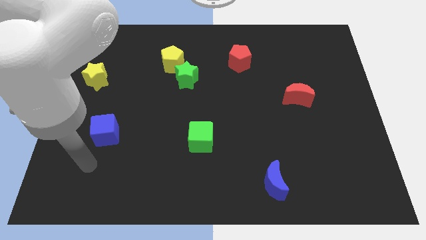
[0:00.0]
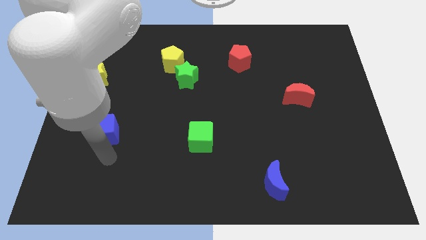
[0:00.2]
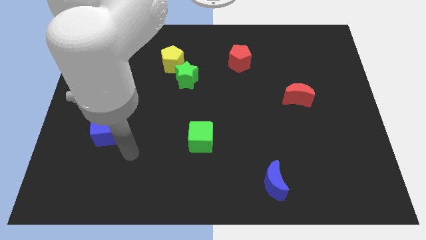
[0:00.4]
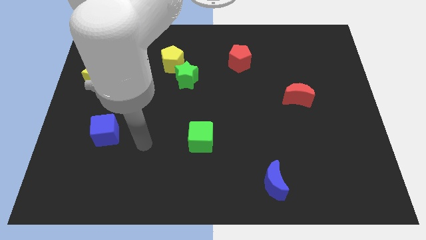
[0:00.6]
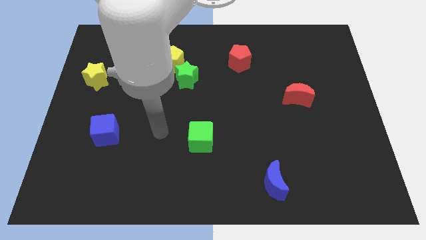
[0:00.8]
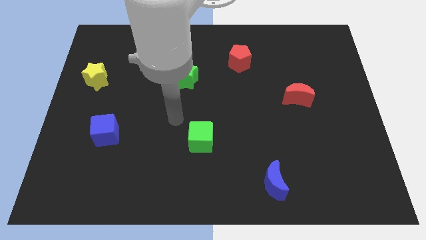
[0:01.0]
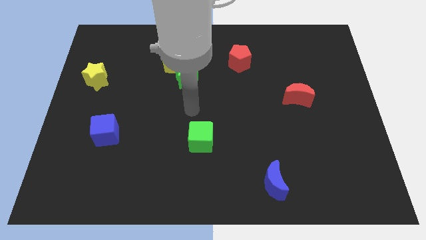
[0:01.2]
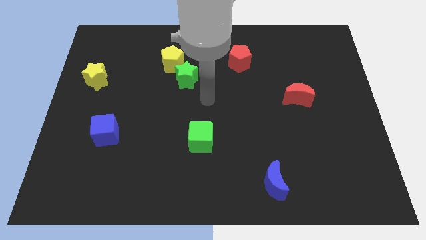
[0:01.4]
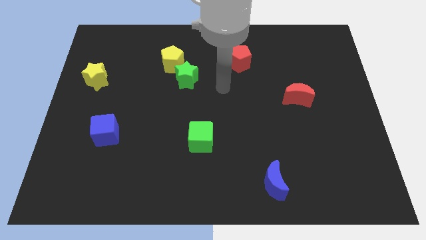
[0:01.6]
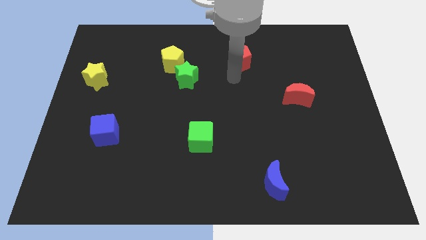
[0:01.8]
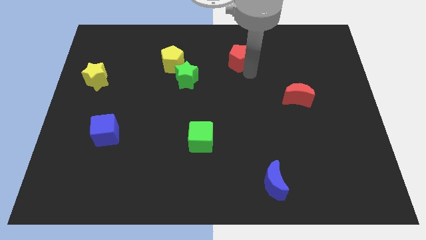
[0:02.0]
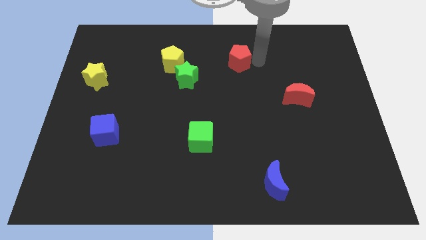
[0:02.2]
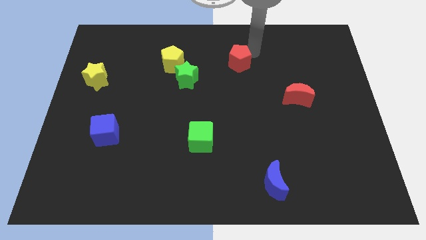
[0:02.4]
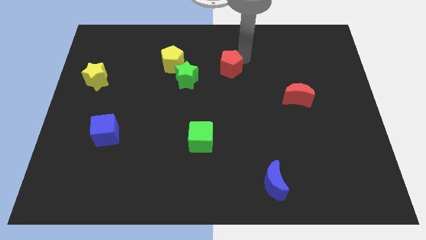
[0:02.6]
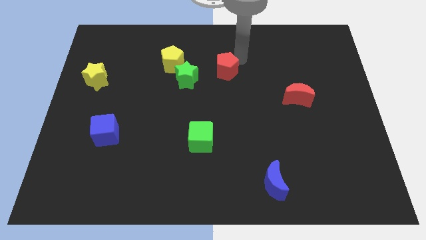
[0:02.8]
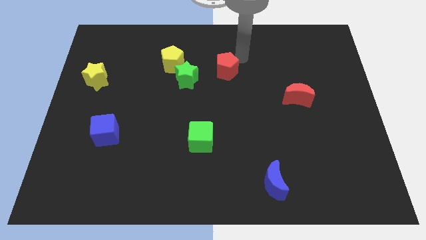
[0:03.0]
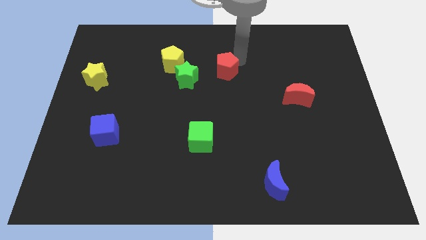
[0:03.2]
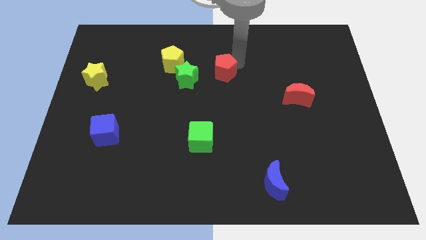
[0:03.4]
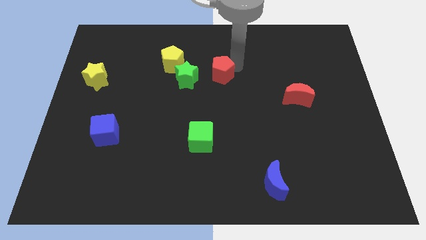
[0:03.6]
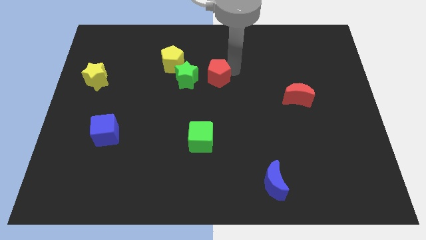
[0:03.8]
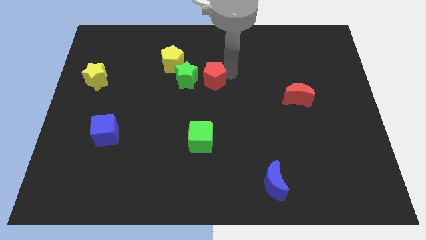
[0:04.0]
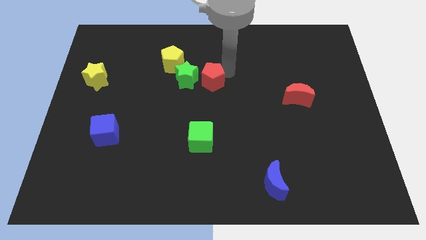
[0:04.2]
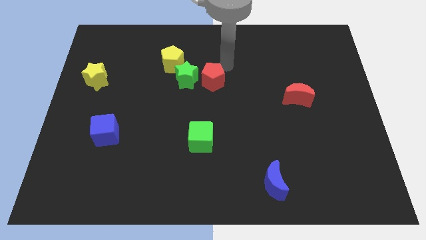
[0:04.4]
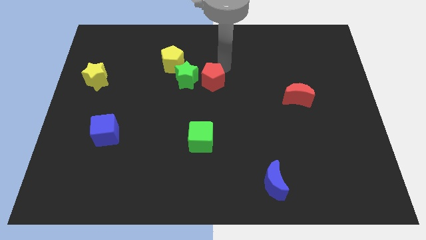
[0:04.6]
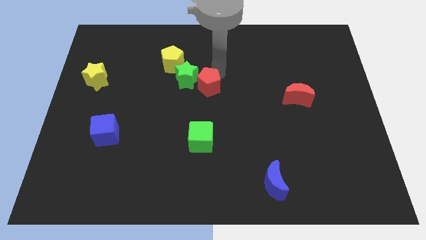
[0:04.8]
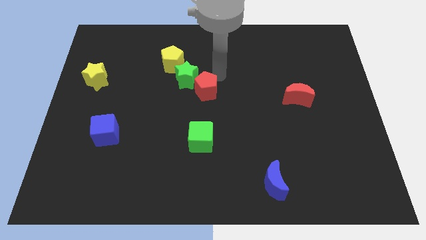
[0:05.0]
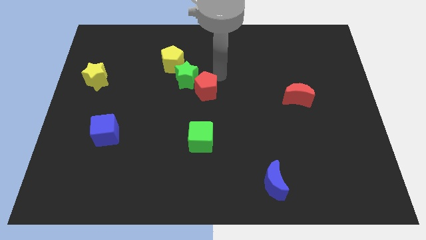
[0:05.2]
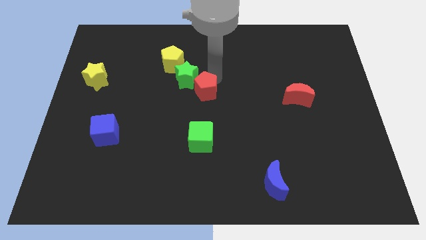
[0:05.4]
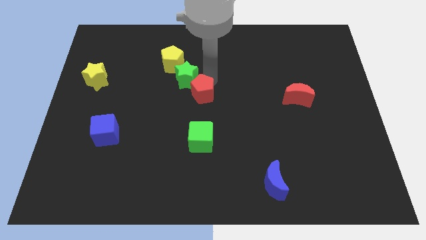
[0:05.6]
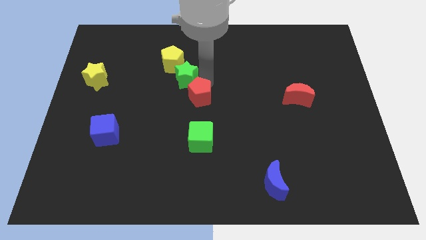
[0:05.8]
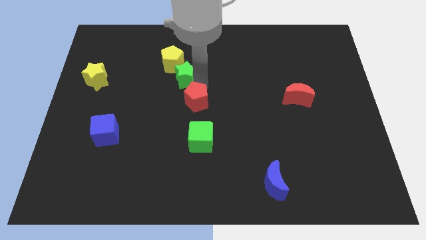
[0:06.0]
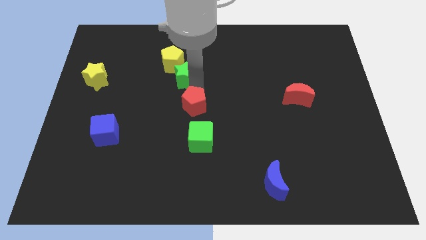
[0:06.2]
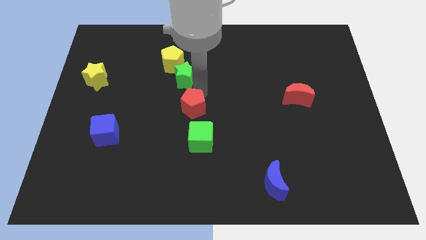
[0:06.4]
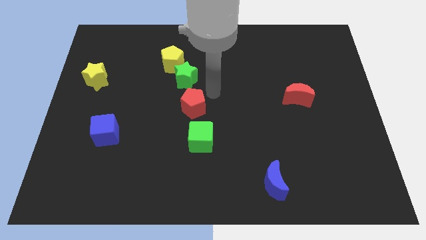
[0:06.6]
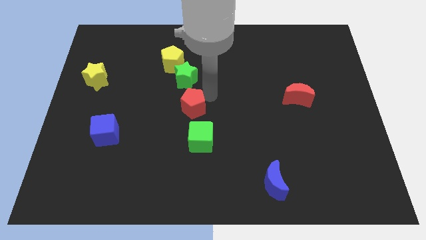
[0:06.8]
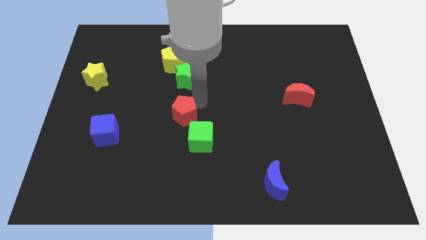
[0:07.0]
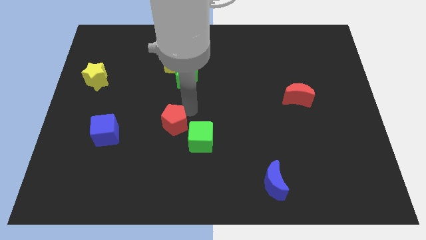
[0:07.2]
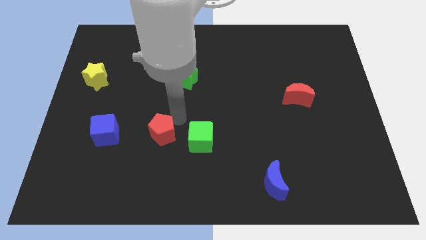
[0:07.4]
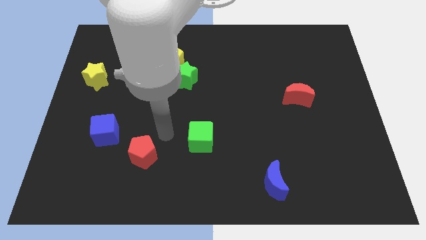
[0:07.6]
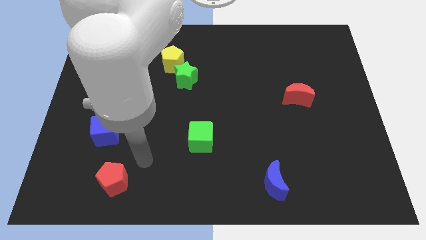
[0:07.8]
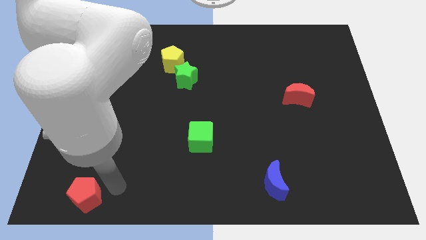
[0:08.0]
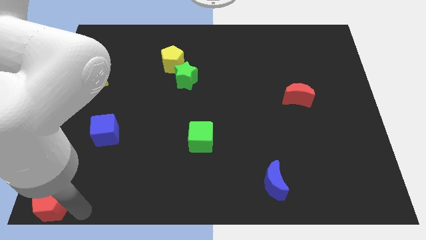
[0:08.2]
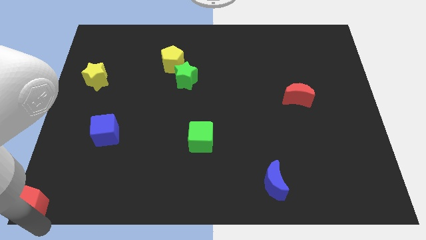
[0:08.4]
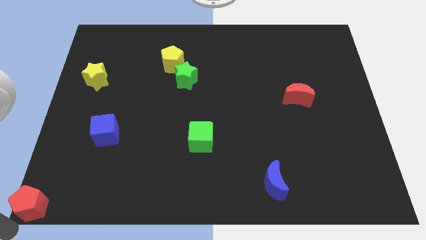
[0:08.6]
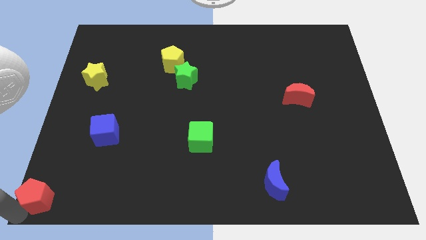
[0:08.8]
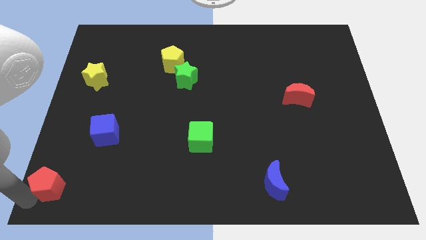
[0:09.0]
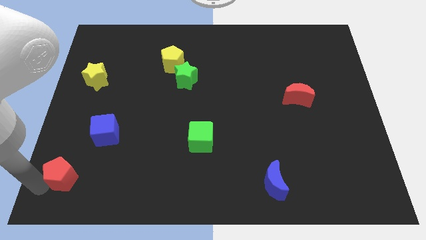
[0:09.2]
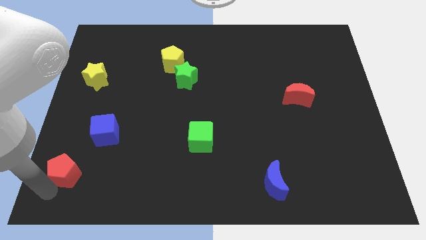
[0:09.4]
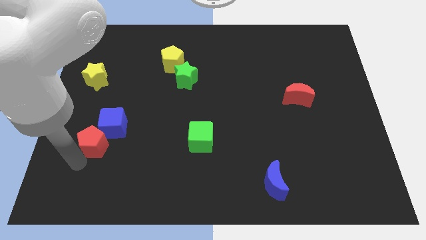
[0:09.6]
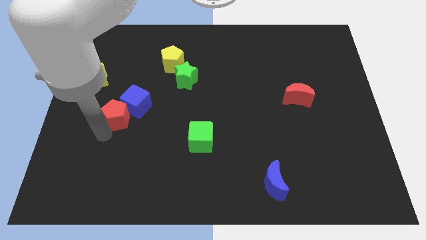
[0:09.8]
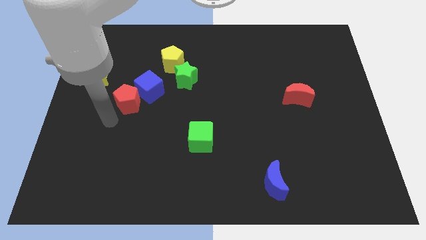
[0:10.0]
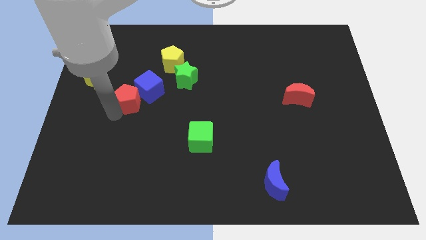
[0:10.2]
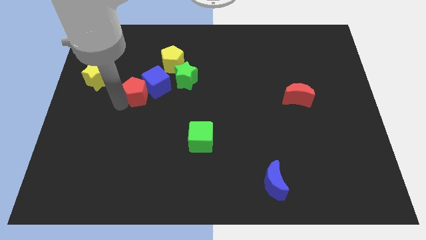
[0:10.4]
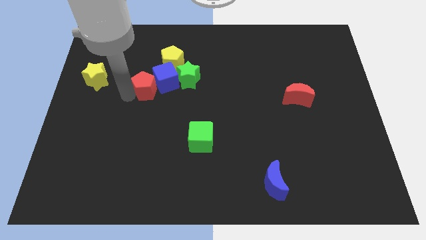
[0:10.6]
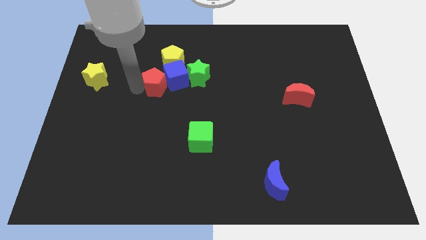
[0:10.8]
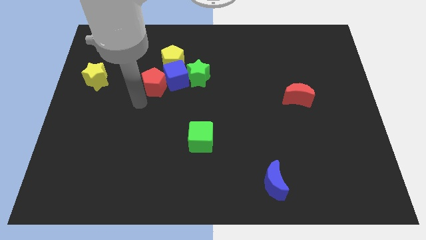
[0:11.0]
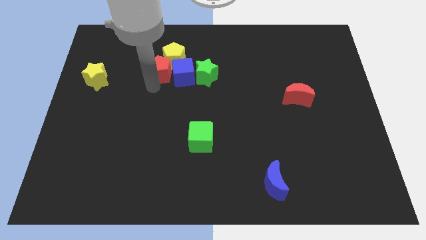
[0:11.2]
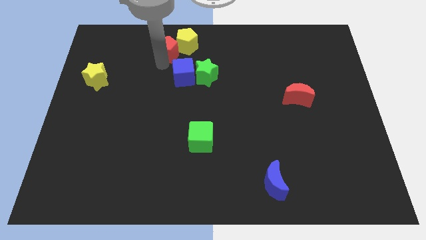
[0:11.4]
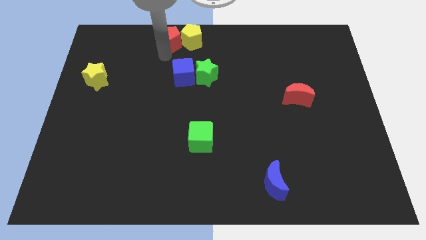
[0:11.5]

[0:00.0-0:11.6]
slide the red pentagon to the top
